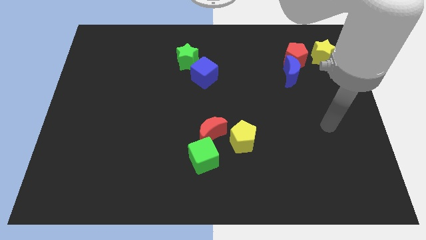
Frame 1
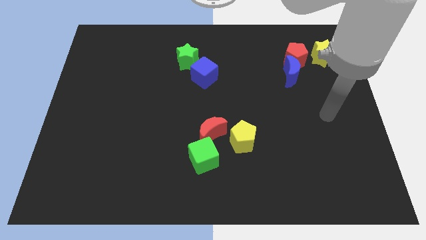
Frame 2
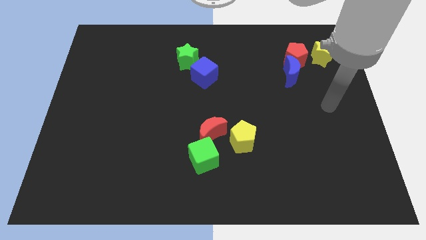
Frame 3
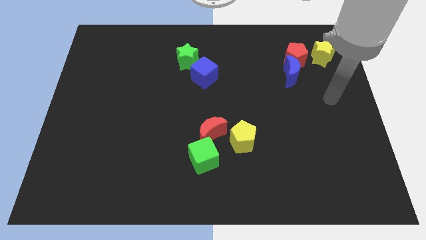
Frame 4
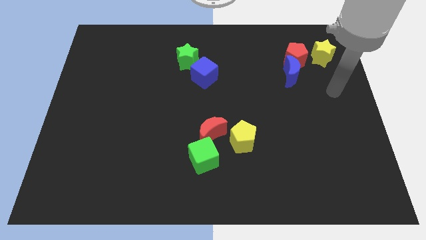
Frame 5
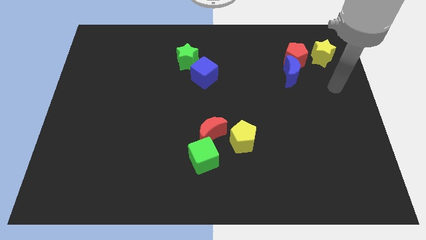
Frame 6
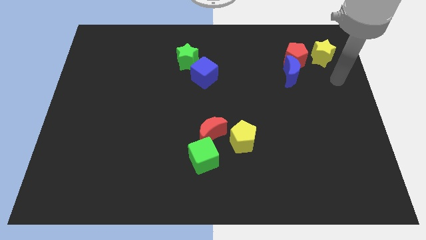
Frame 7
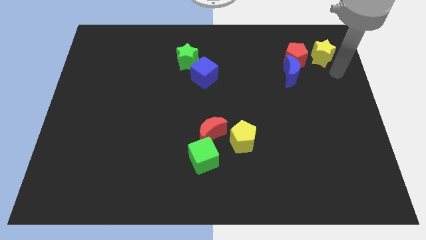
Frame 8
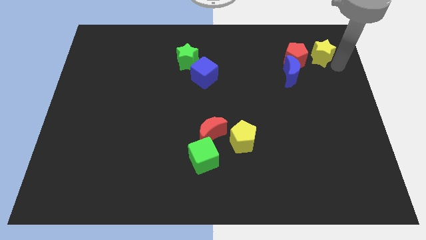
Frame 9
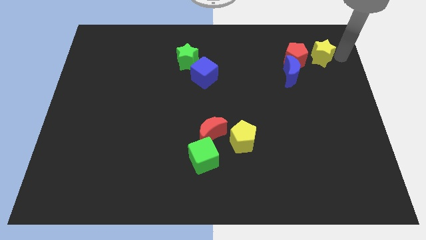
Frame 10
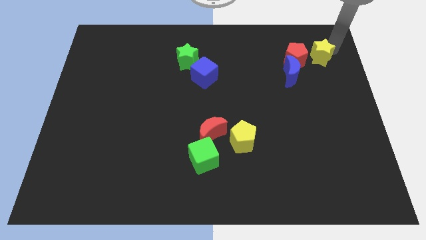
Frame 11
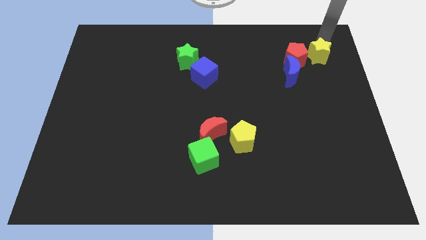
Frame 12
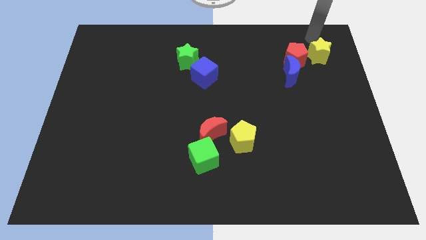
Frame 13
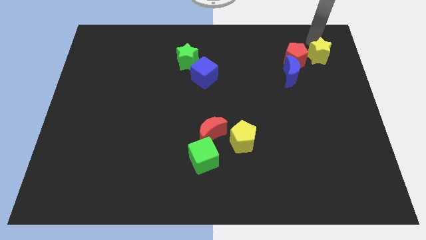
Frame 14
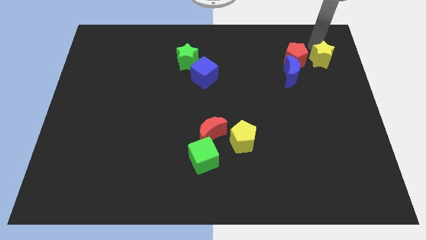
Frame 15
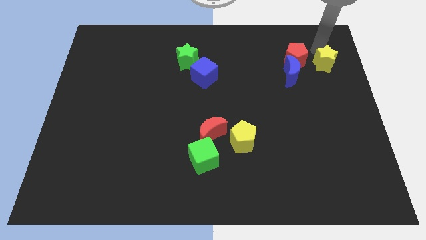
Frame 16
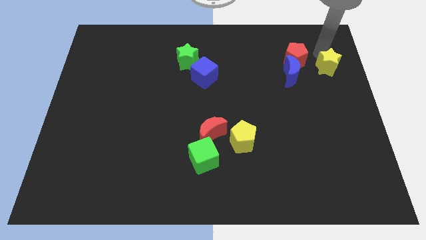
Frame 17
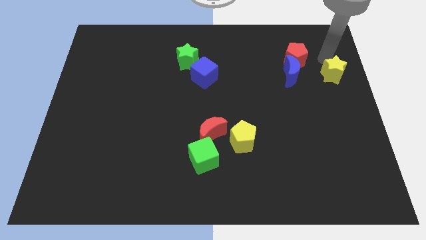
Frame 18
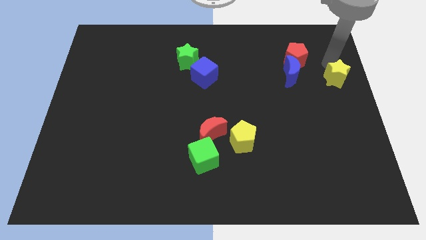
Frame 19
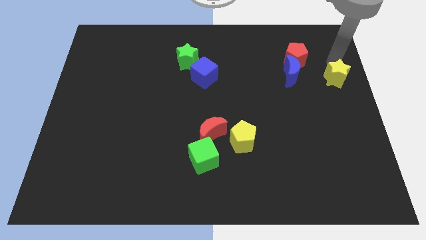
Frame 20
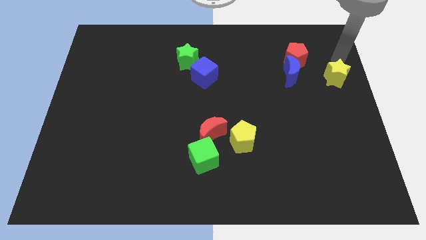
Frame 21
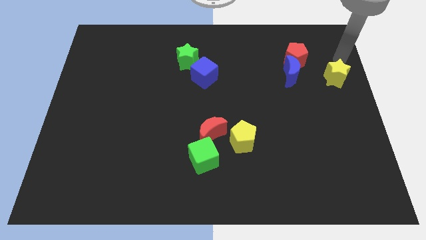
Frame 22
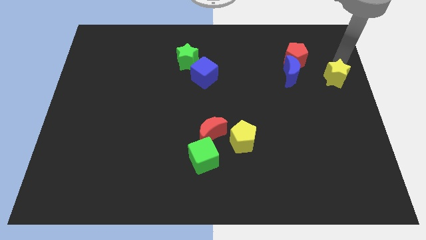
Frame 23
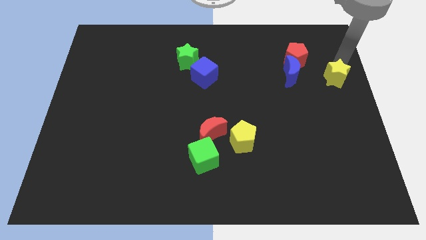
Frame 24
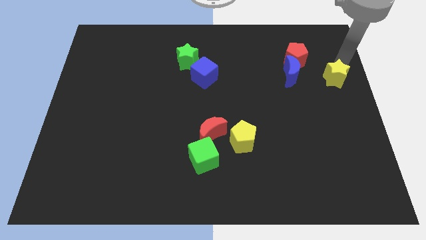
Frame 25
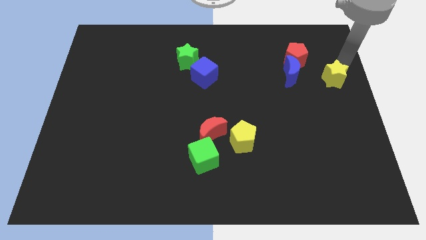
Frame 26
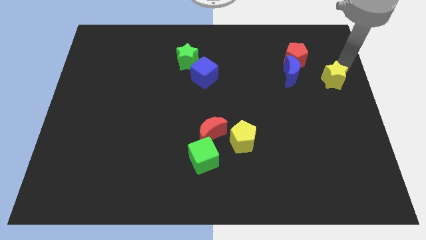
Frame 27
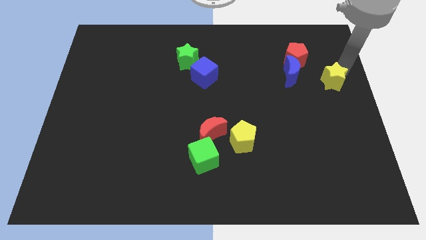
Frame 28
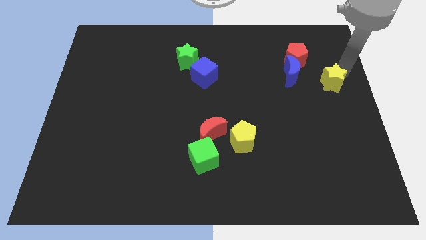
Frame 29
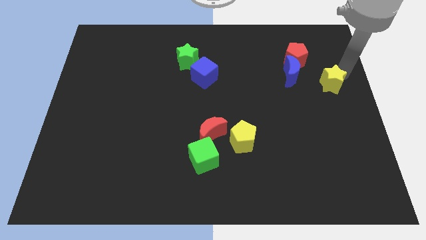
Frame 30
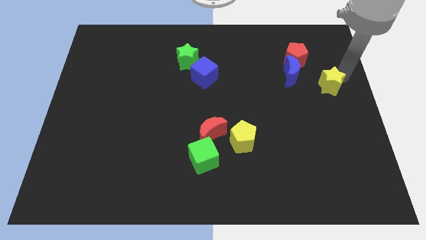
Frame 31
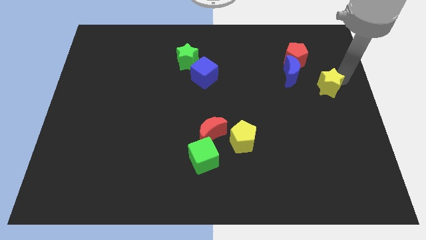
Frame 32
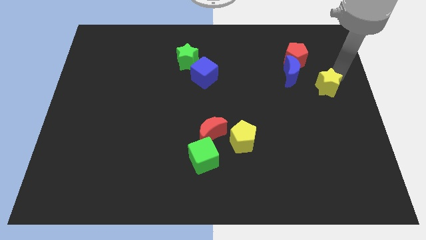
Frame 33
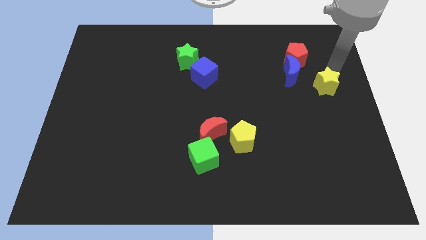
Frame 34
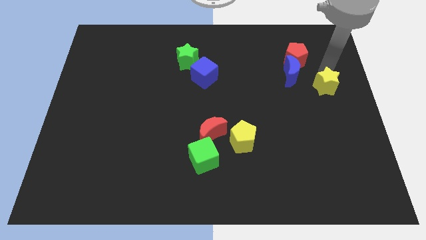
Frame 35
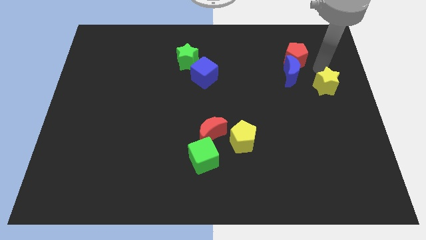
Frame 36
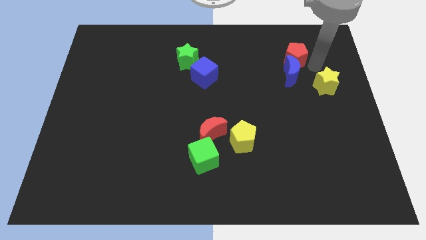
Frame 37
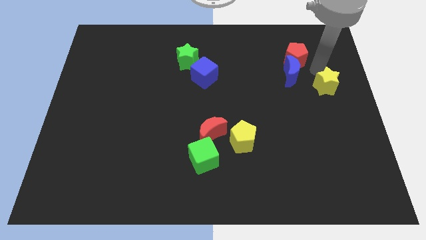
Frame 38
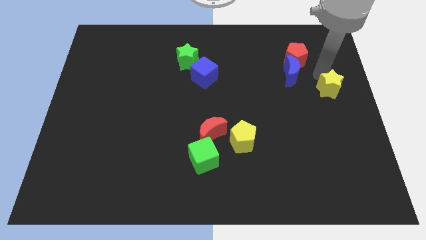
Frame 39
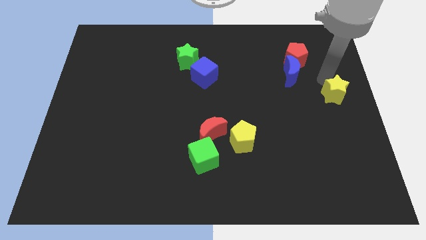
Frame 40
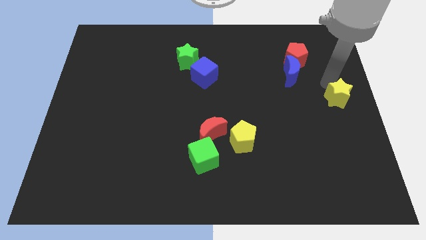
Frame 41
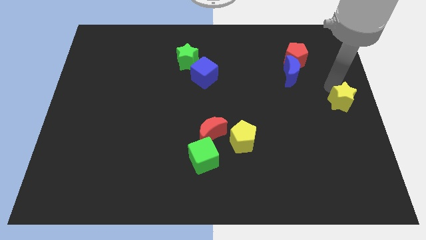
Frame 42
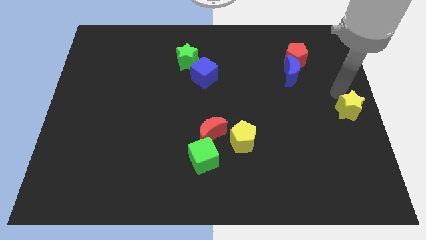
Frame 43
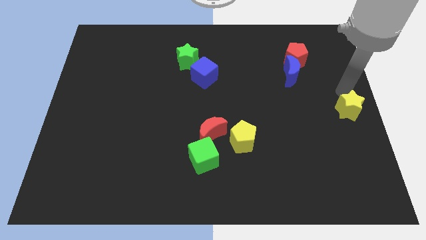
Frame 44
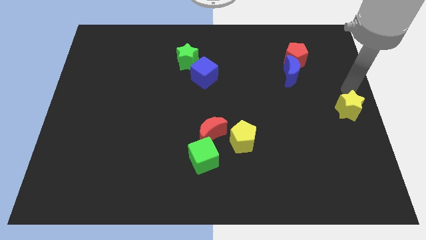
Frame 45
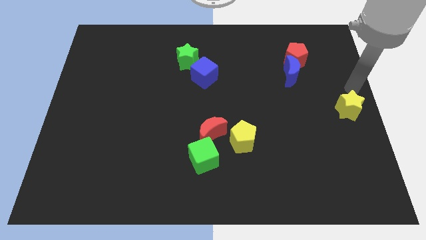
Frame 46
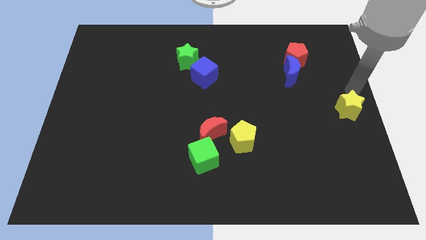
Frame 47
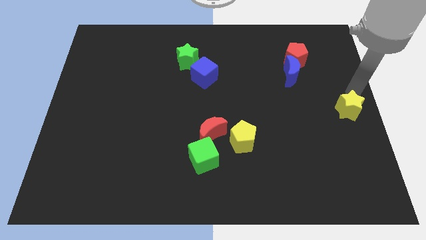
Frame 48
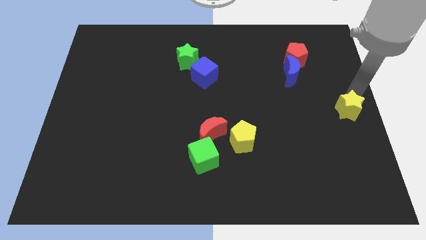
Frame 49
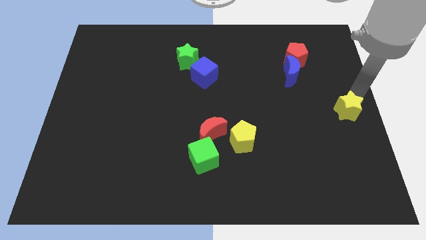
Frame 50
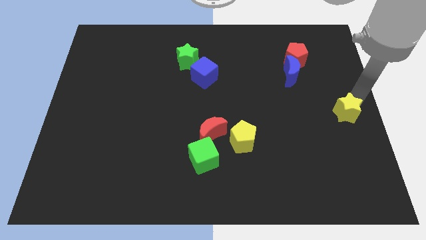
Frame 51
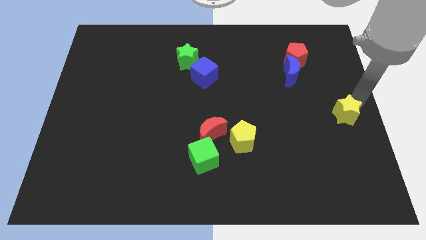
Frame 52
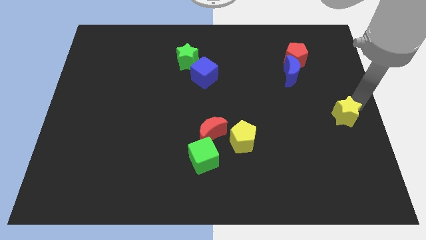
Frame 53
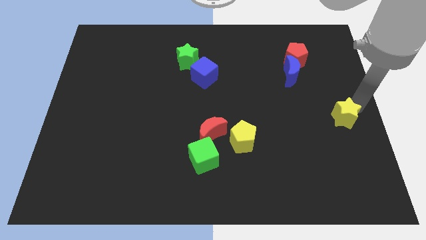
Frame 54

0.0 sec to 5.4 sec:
push the yellow star down

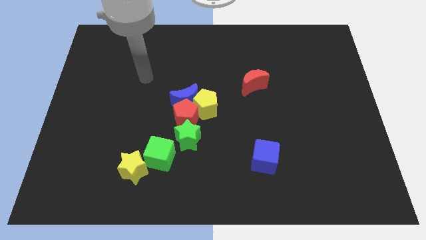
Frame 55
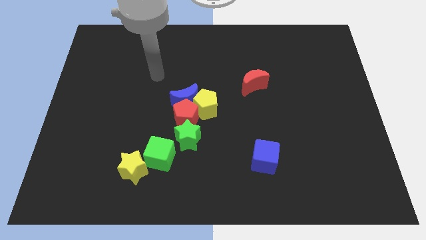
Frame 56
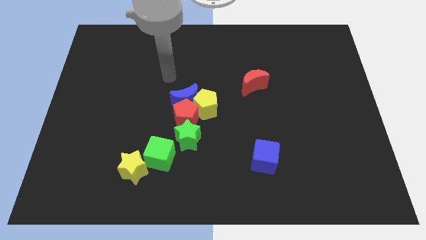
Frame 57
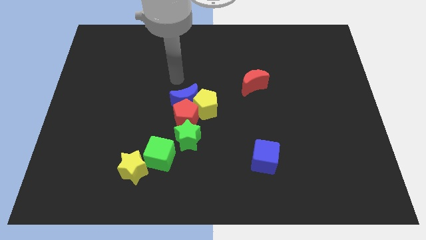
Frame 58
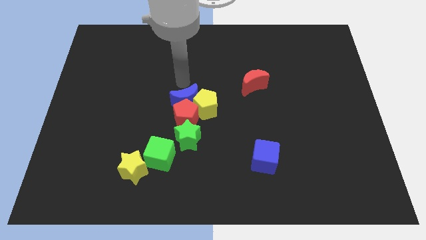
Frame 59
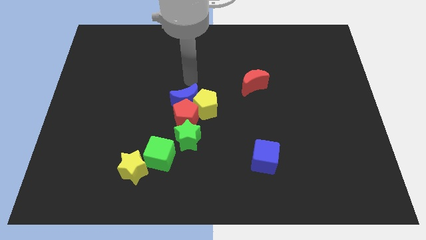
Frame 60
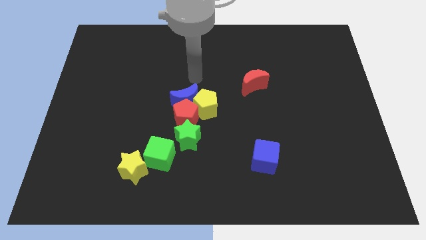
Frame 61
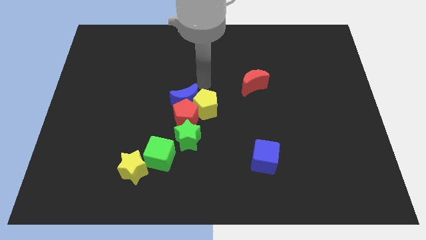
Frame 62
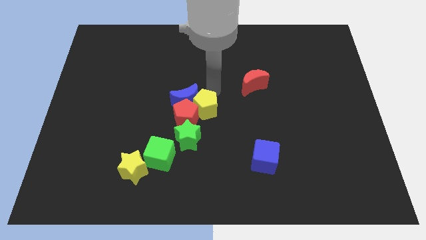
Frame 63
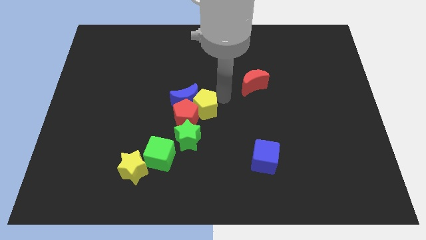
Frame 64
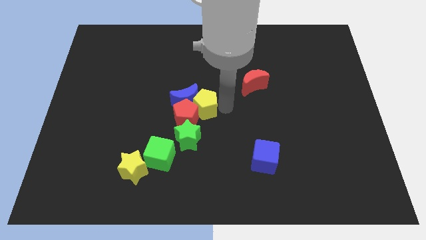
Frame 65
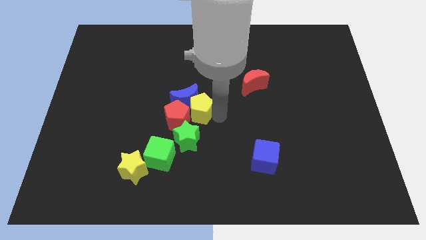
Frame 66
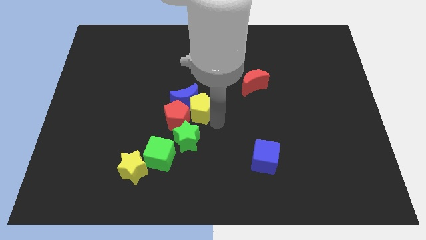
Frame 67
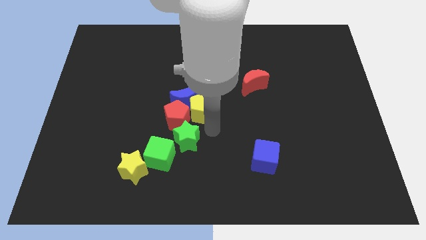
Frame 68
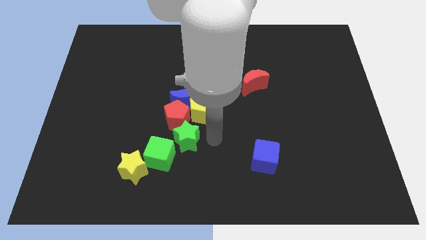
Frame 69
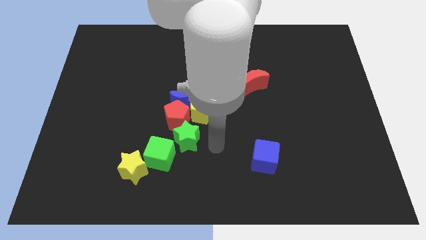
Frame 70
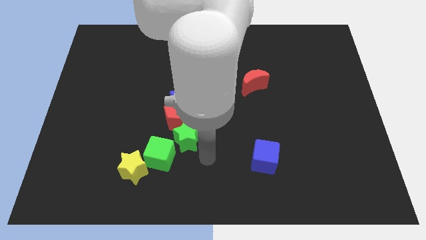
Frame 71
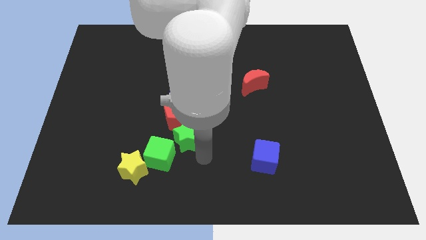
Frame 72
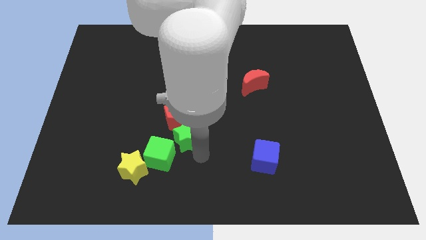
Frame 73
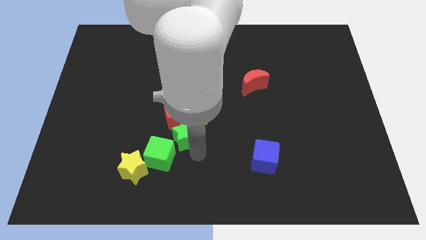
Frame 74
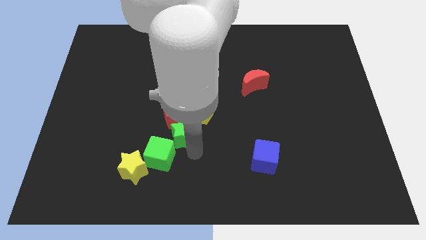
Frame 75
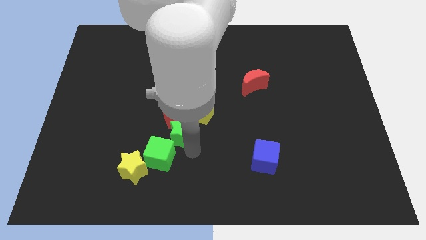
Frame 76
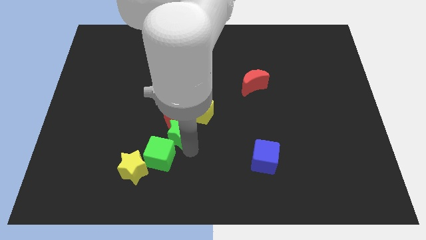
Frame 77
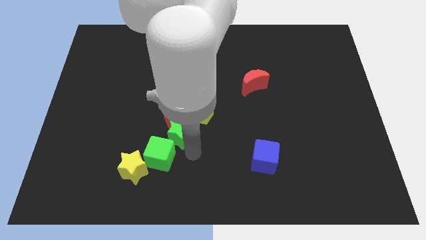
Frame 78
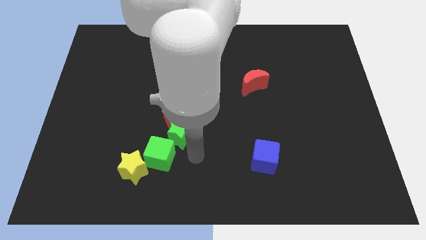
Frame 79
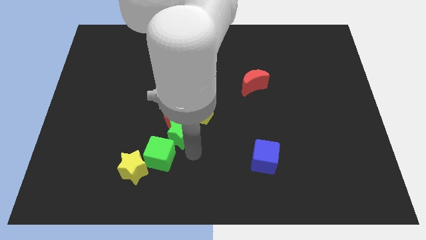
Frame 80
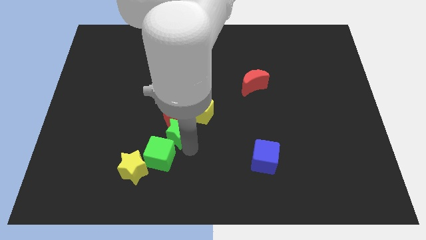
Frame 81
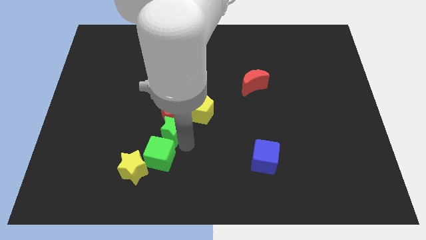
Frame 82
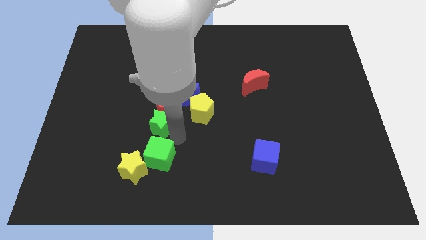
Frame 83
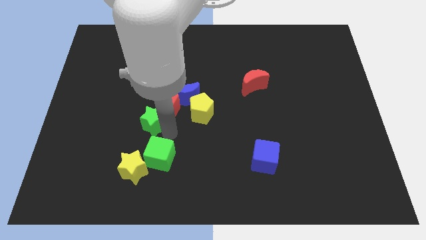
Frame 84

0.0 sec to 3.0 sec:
push the green star upwards and left a little bit
